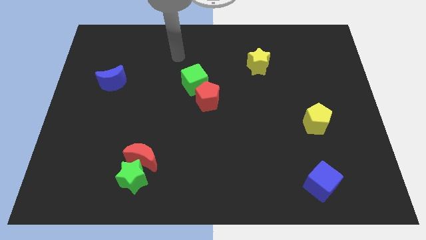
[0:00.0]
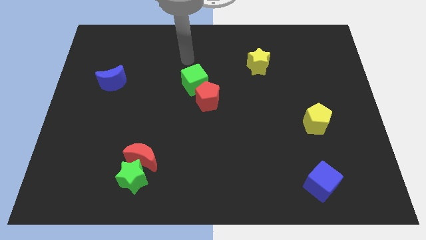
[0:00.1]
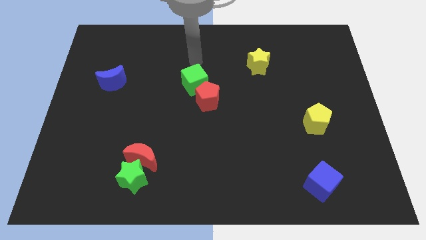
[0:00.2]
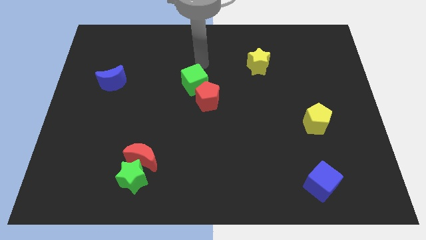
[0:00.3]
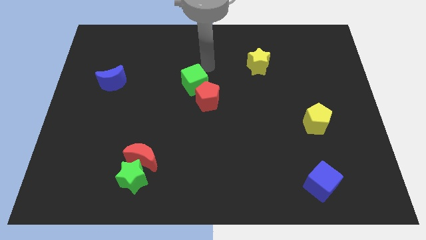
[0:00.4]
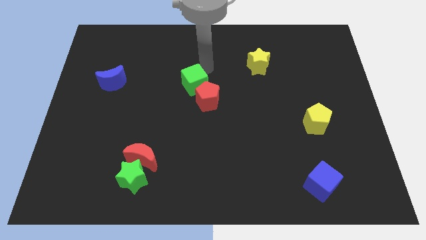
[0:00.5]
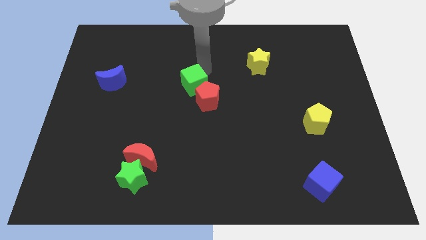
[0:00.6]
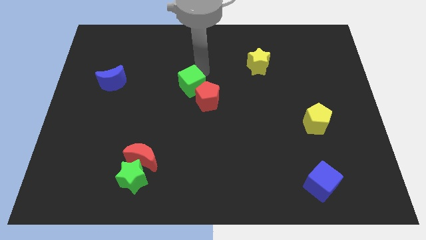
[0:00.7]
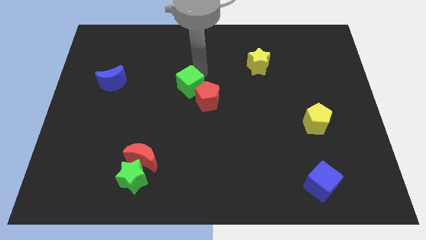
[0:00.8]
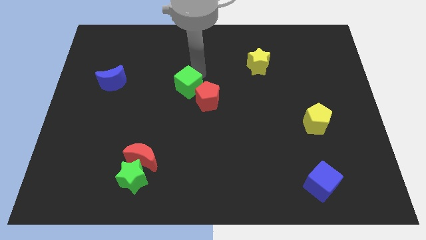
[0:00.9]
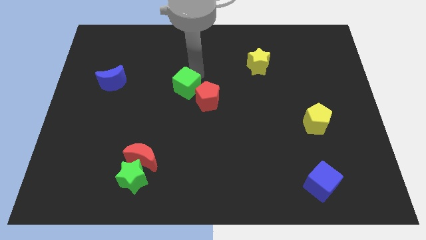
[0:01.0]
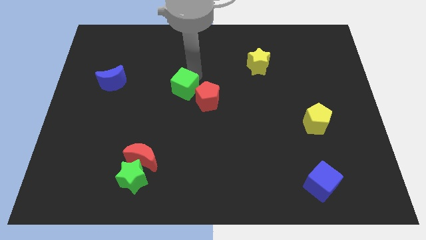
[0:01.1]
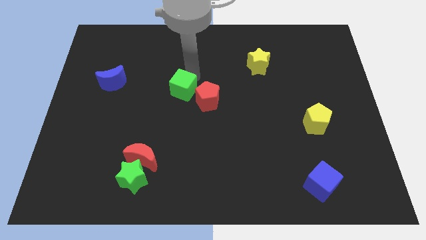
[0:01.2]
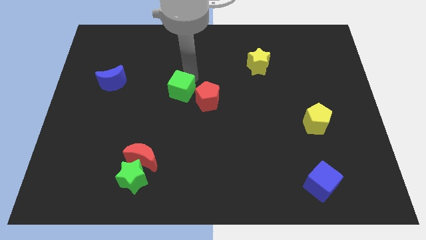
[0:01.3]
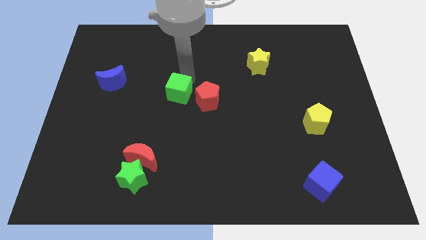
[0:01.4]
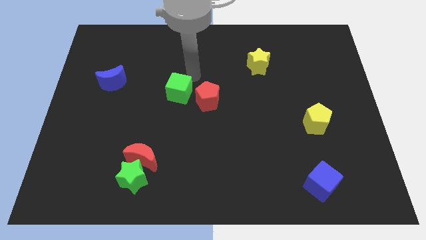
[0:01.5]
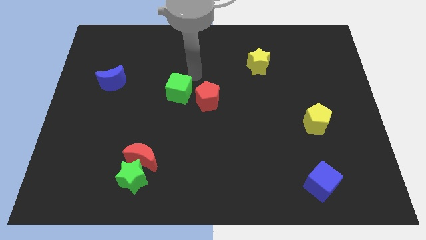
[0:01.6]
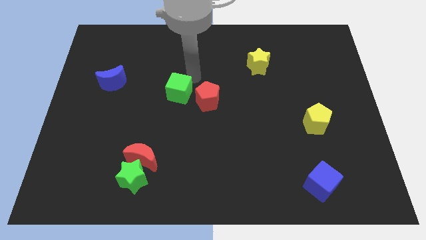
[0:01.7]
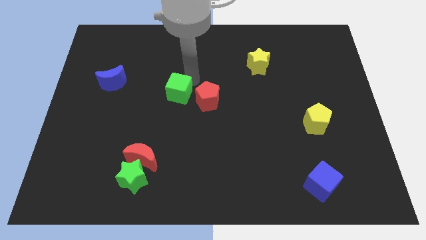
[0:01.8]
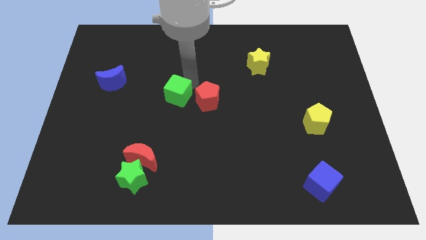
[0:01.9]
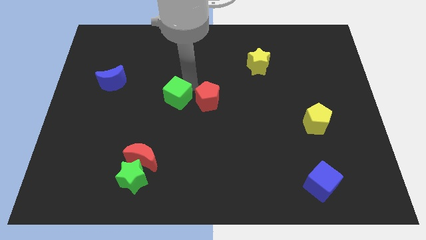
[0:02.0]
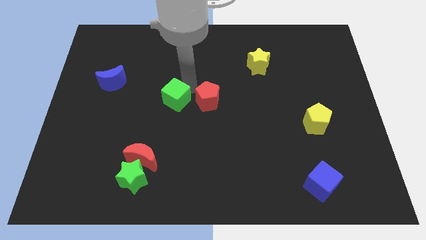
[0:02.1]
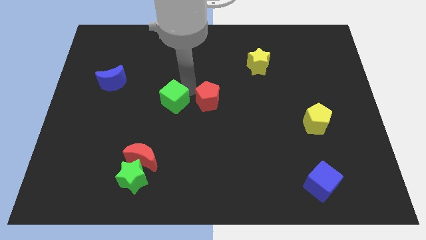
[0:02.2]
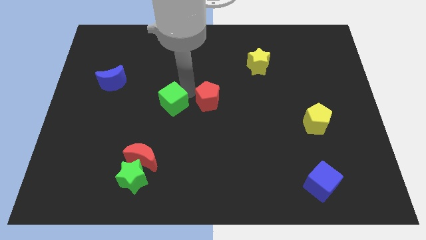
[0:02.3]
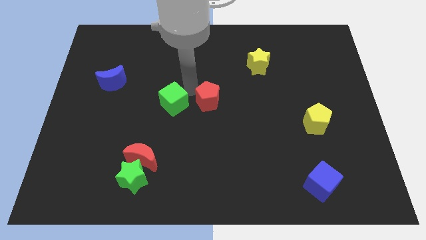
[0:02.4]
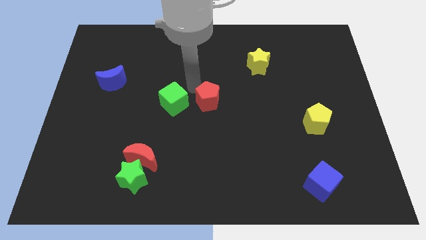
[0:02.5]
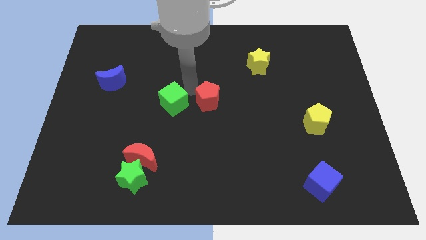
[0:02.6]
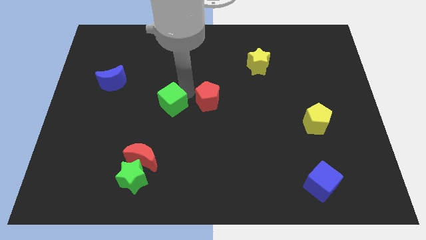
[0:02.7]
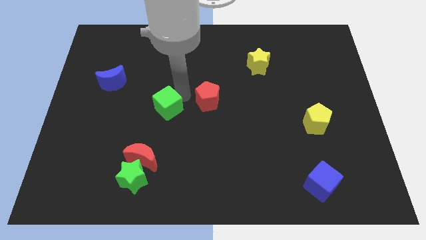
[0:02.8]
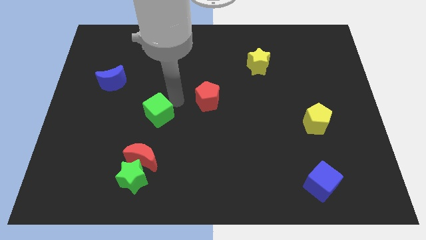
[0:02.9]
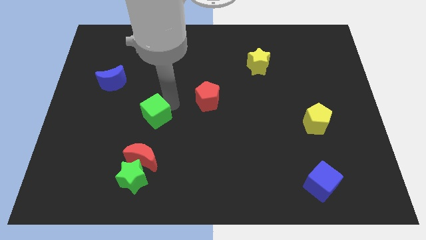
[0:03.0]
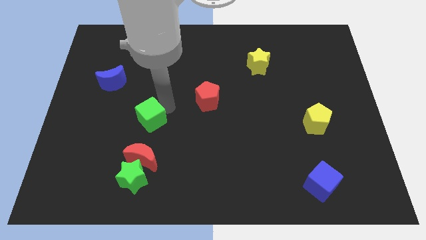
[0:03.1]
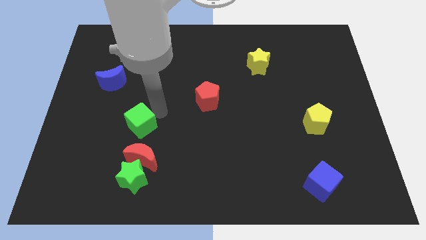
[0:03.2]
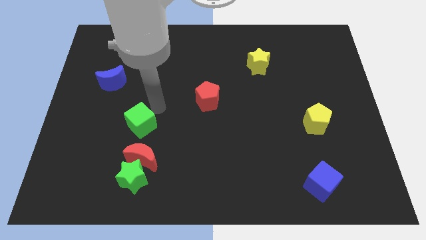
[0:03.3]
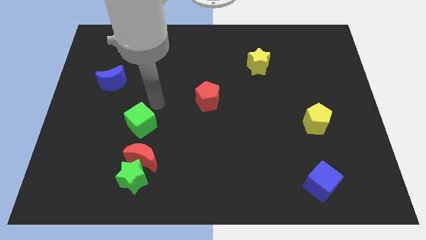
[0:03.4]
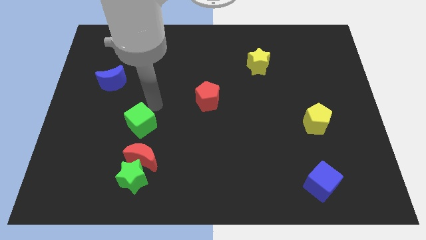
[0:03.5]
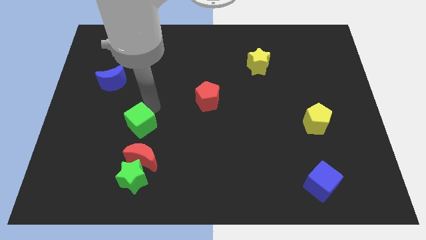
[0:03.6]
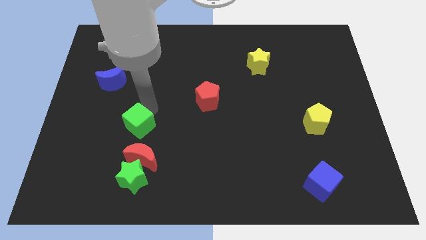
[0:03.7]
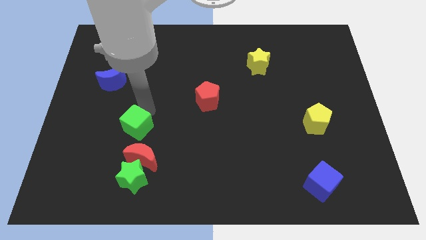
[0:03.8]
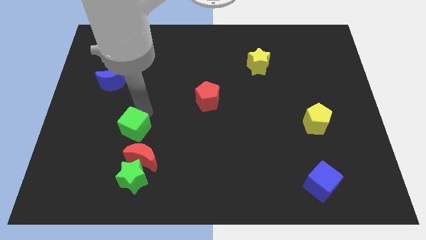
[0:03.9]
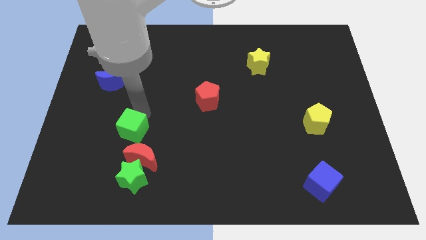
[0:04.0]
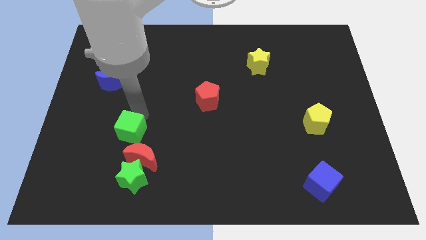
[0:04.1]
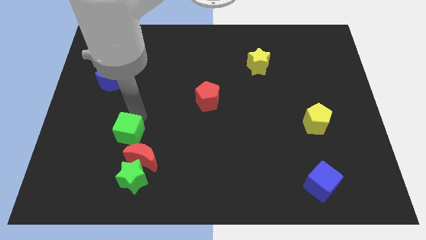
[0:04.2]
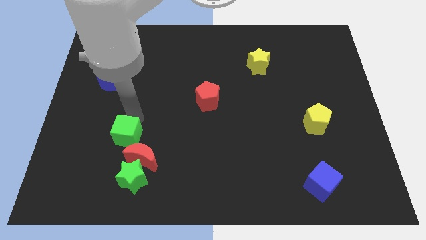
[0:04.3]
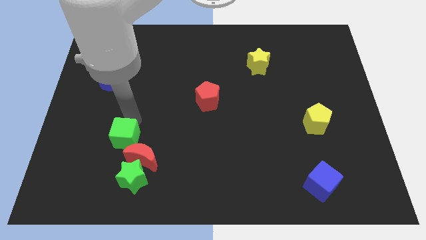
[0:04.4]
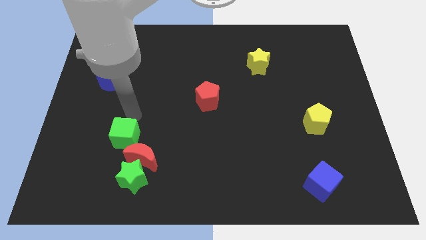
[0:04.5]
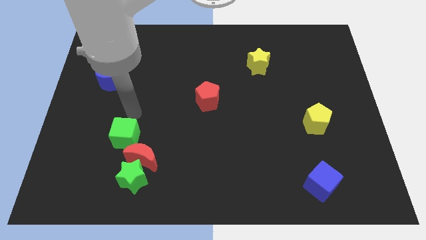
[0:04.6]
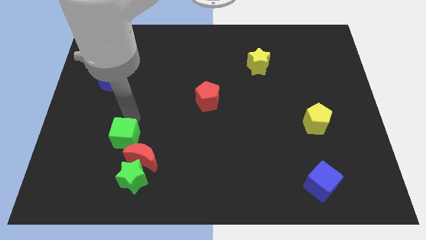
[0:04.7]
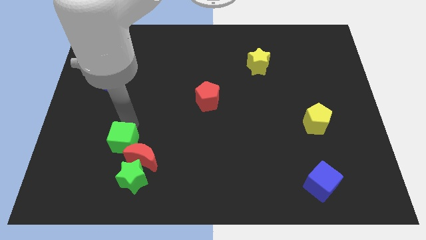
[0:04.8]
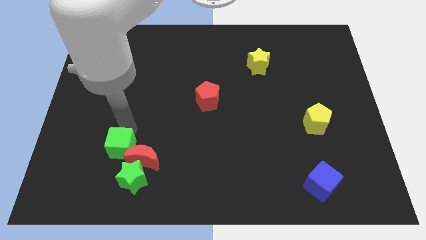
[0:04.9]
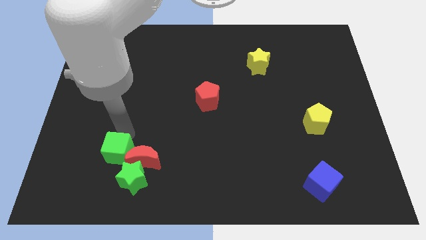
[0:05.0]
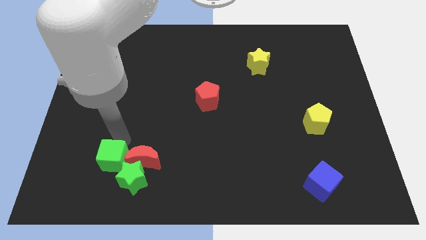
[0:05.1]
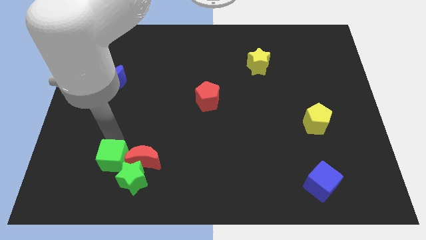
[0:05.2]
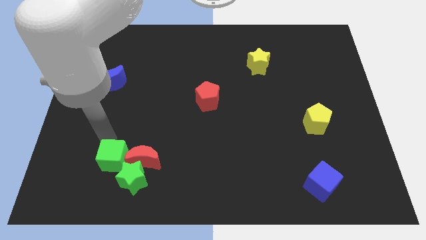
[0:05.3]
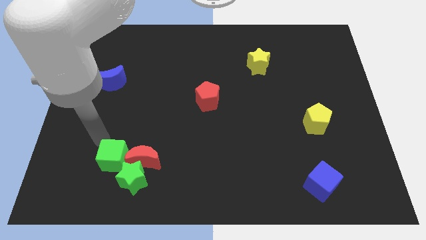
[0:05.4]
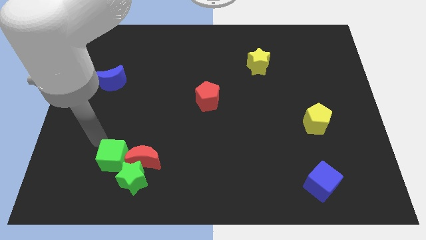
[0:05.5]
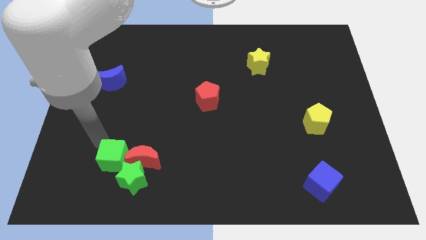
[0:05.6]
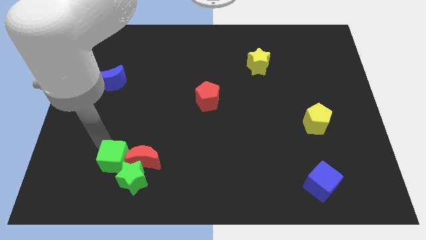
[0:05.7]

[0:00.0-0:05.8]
move the green cube close to the green star

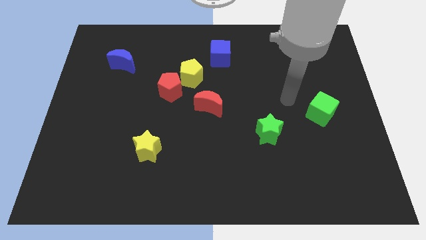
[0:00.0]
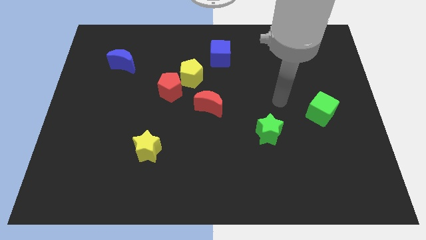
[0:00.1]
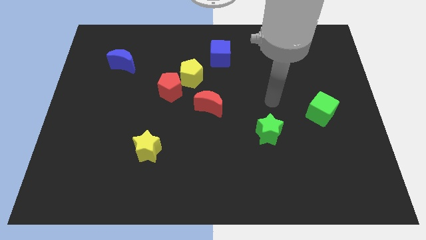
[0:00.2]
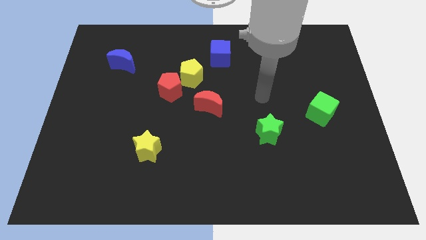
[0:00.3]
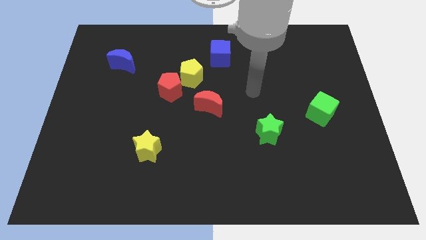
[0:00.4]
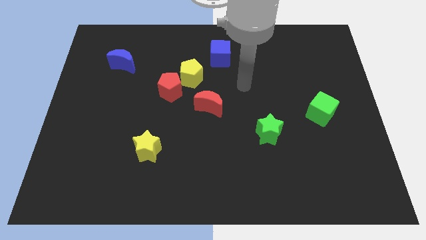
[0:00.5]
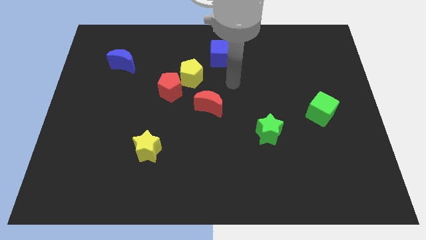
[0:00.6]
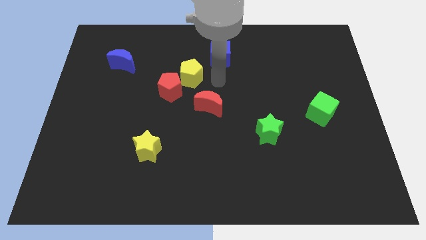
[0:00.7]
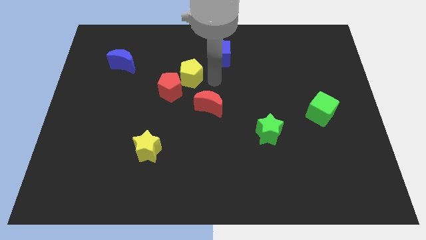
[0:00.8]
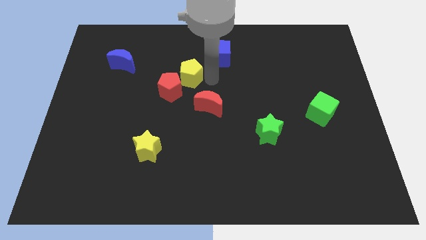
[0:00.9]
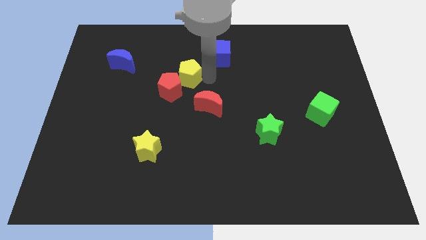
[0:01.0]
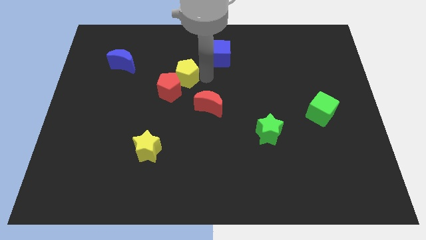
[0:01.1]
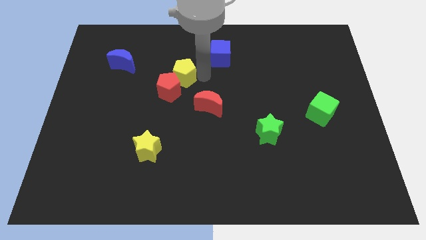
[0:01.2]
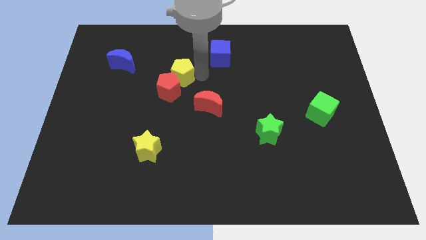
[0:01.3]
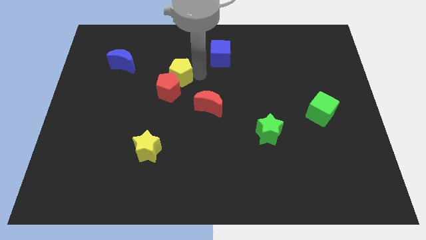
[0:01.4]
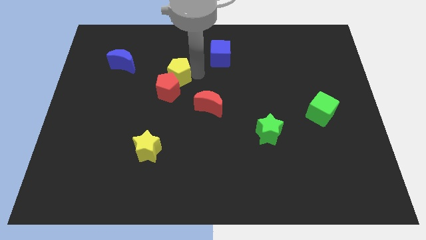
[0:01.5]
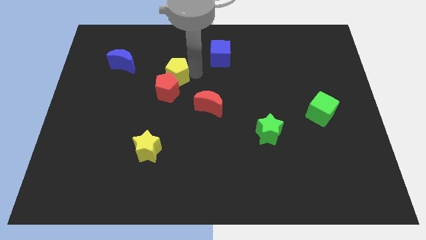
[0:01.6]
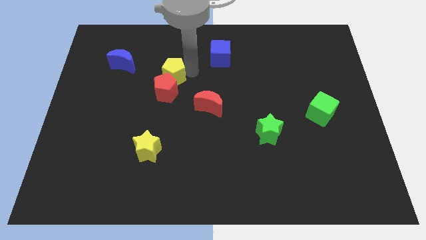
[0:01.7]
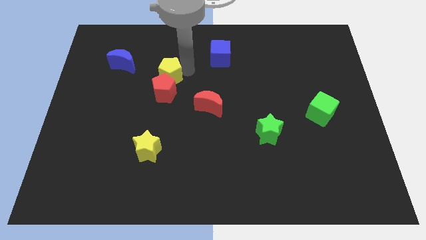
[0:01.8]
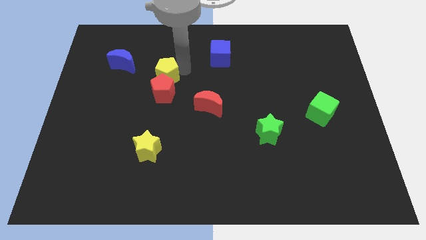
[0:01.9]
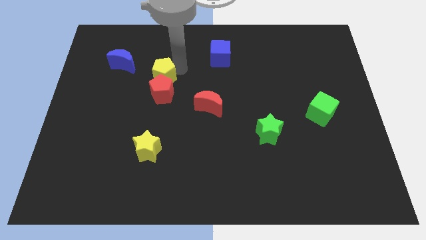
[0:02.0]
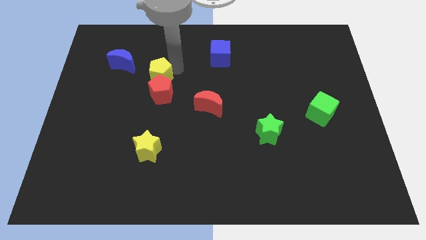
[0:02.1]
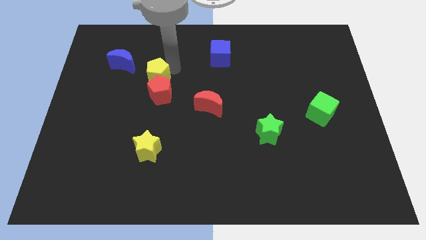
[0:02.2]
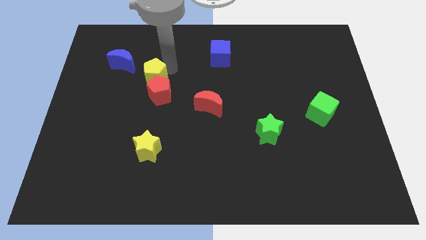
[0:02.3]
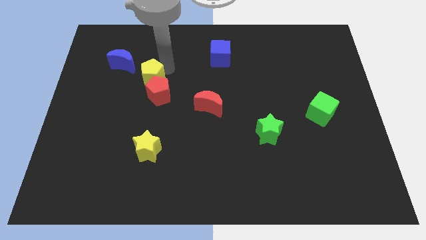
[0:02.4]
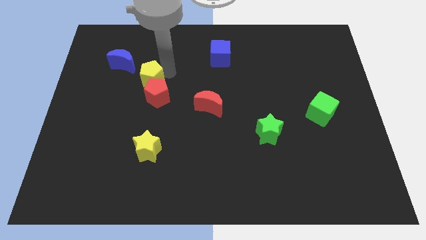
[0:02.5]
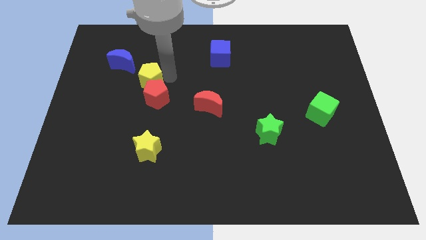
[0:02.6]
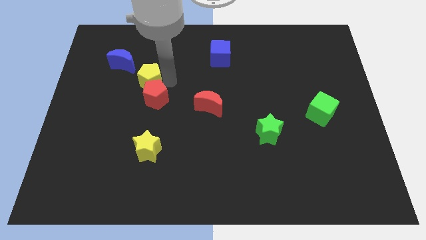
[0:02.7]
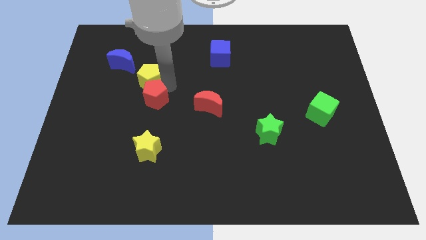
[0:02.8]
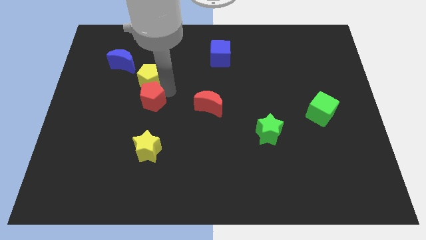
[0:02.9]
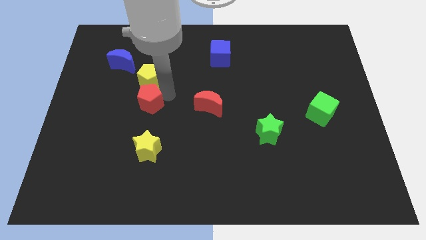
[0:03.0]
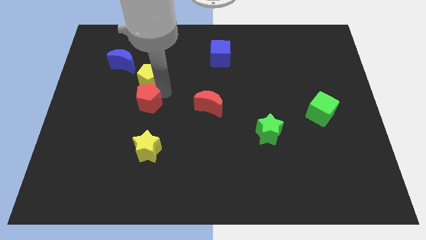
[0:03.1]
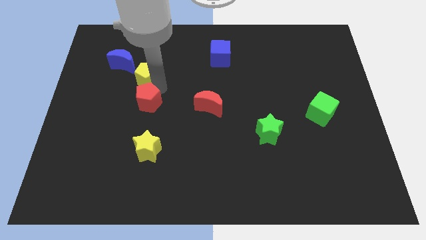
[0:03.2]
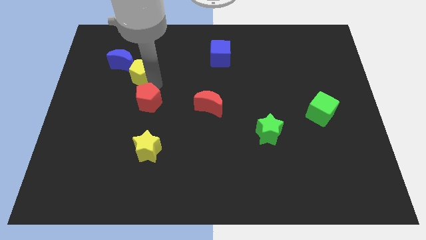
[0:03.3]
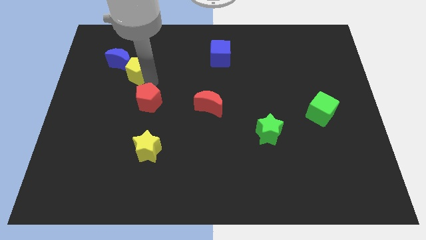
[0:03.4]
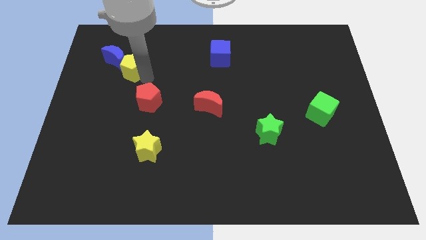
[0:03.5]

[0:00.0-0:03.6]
move the yellow pentagon next to the blue moon
